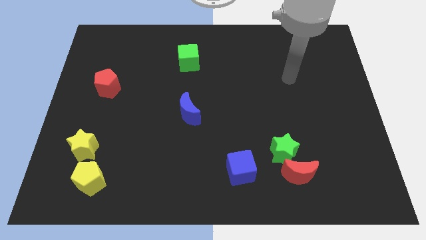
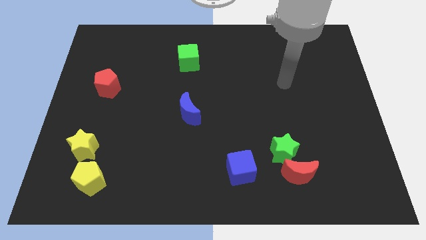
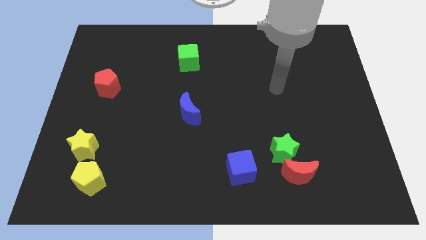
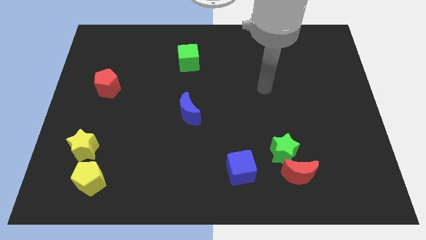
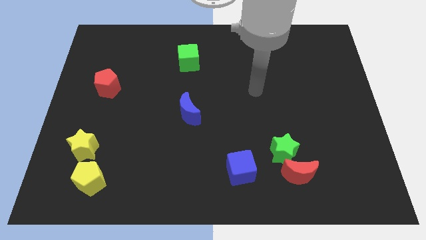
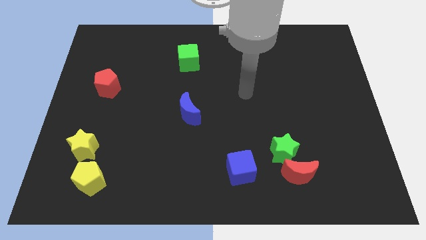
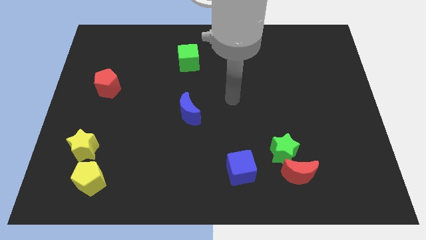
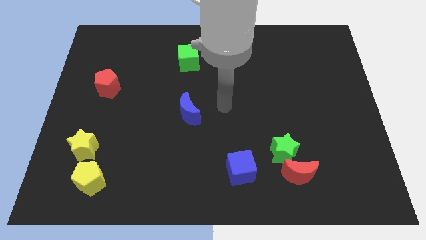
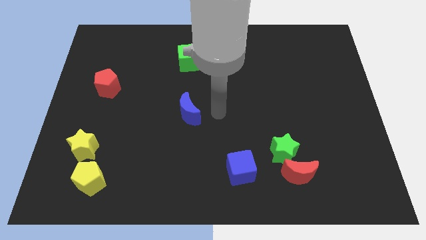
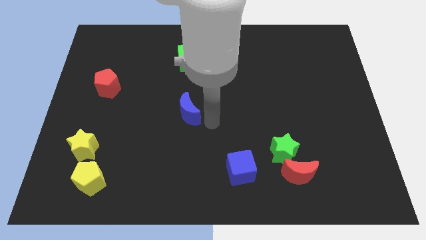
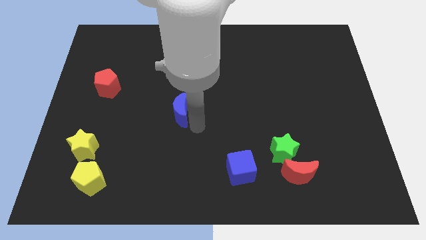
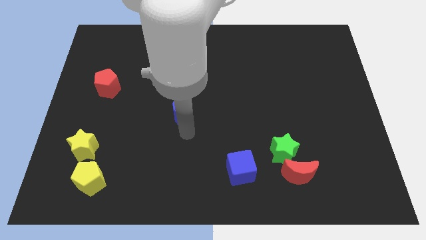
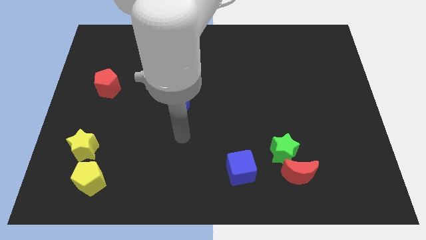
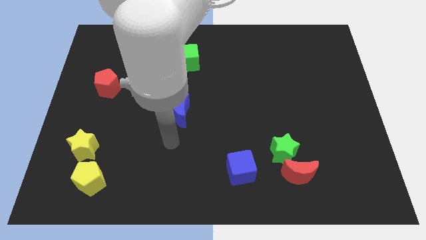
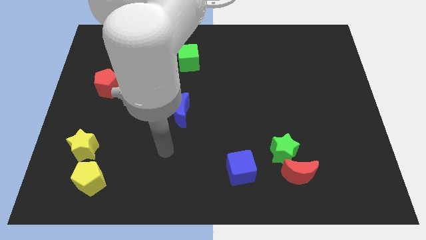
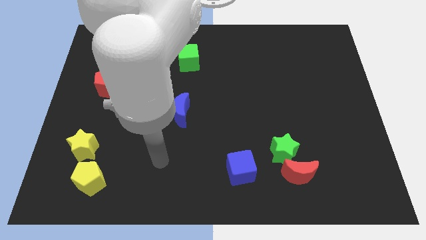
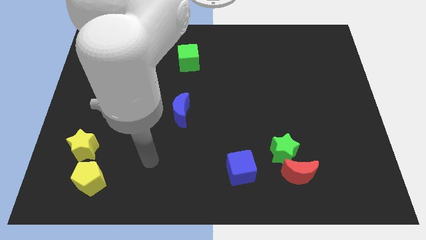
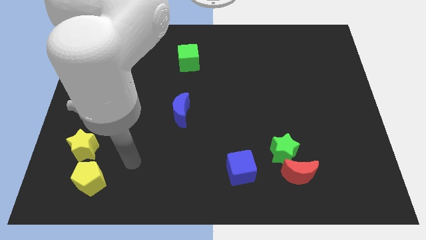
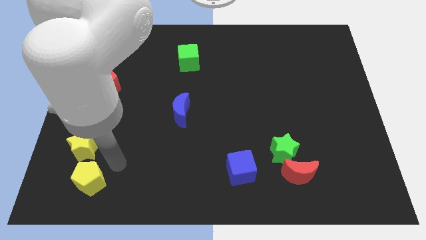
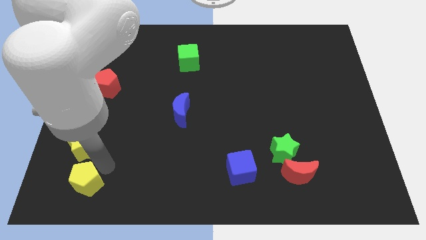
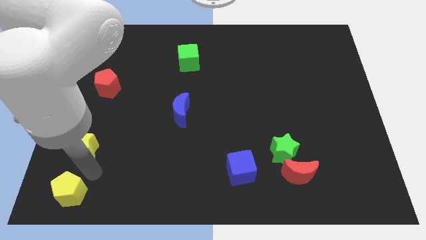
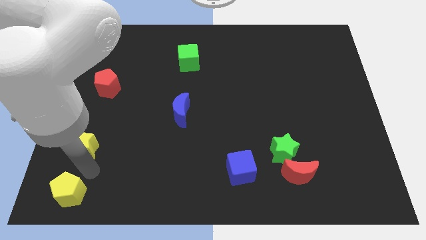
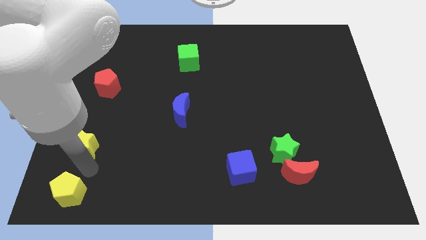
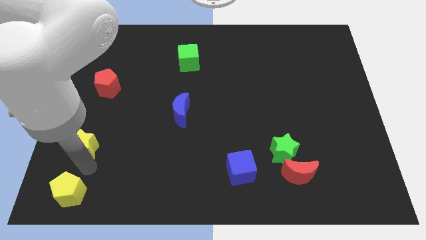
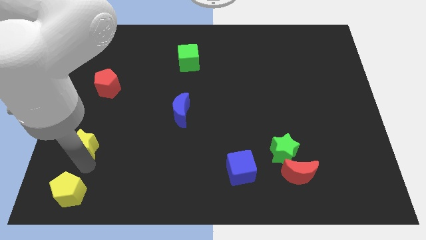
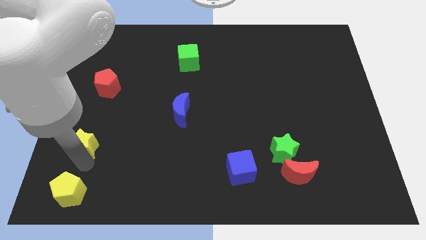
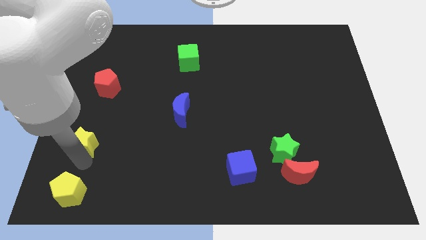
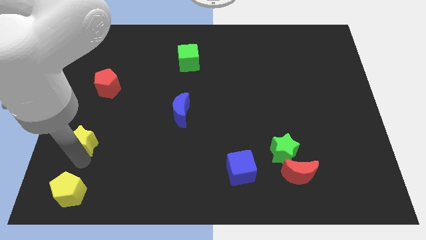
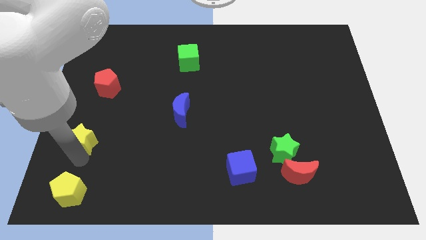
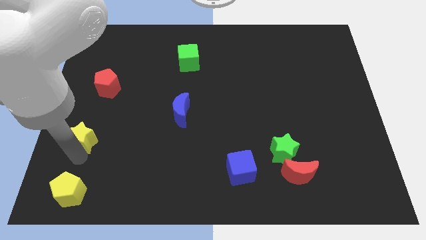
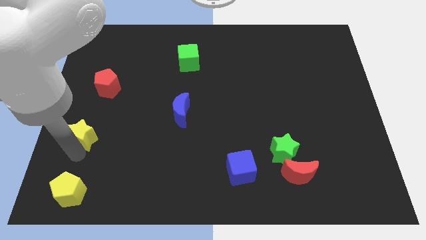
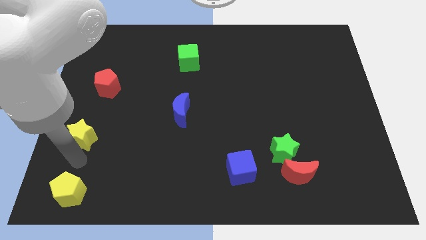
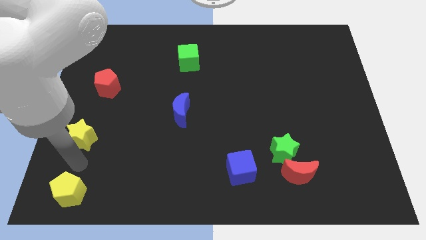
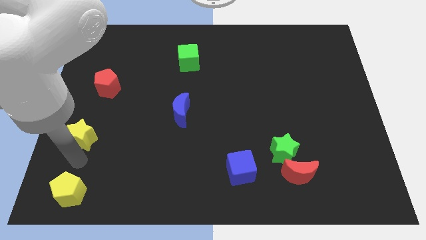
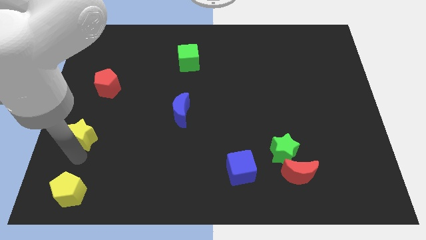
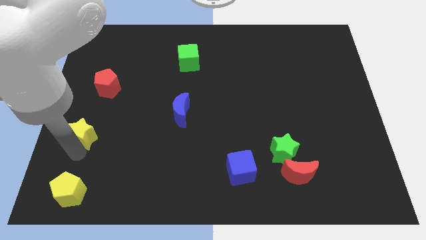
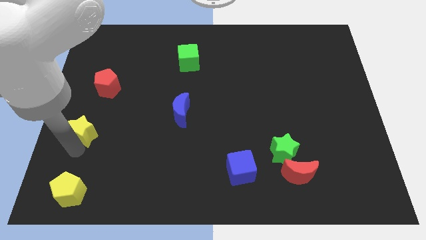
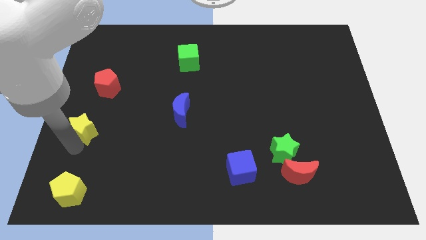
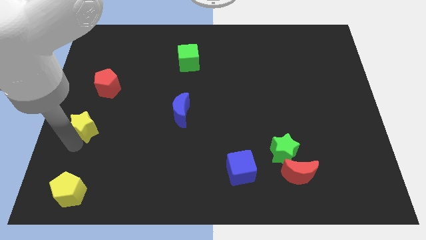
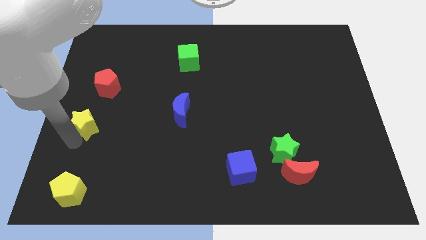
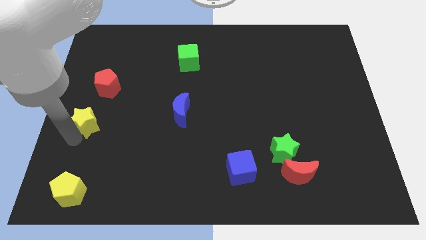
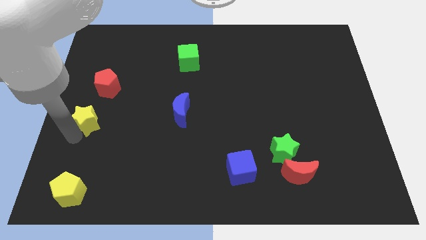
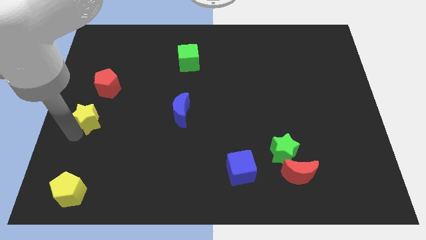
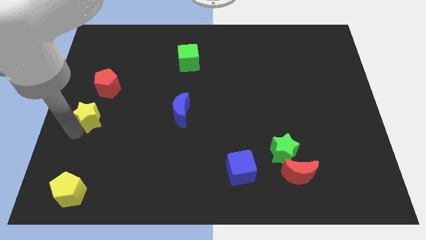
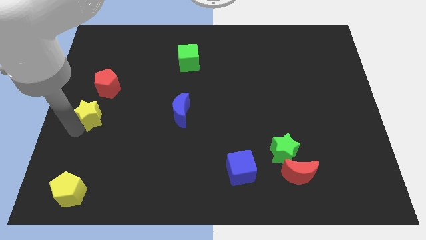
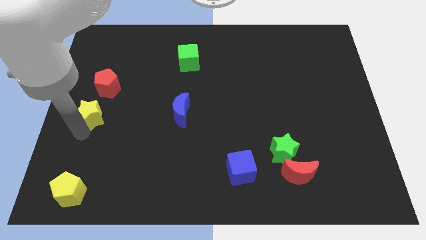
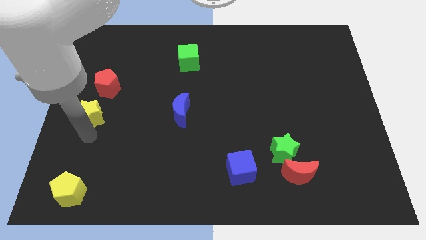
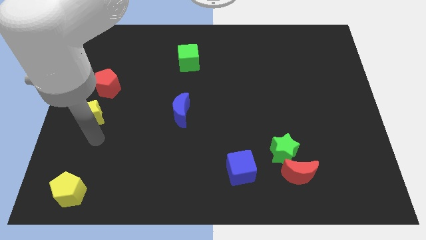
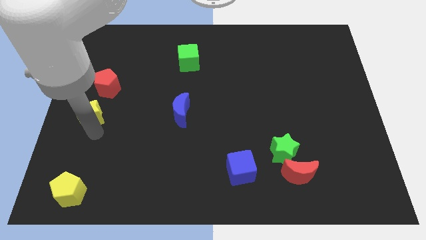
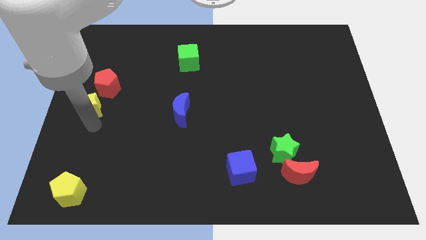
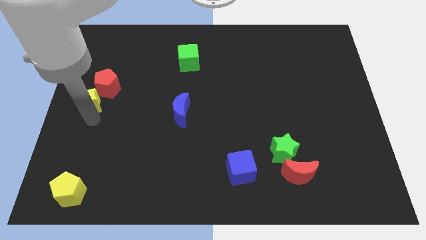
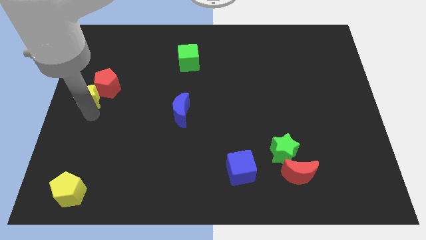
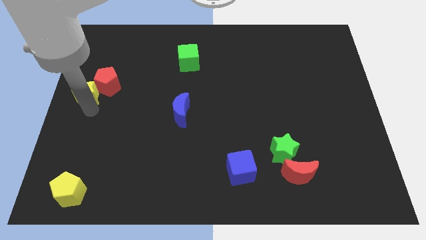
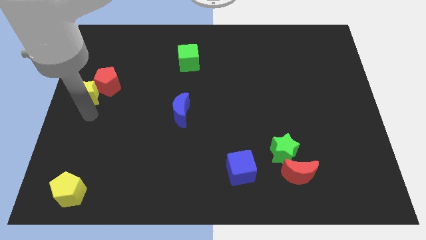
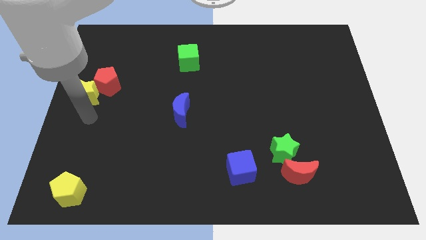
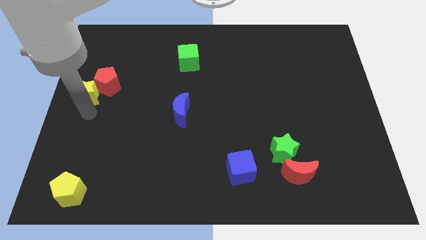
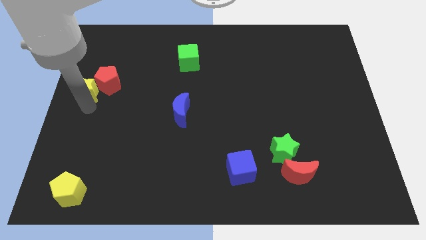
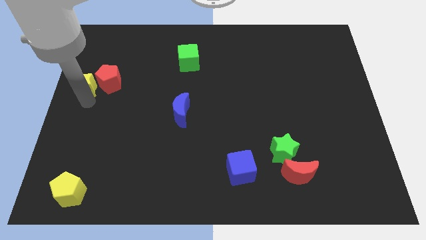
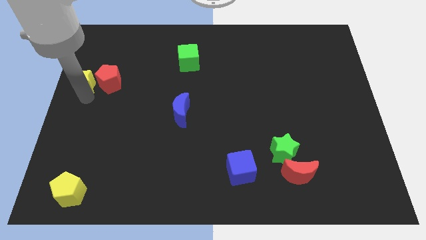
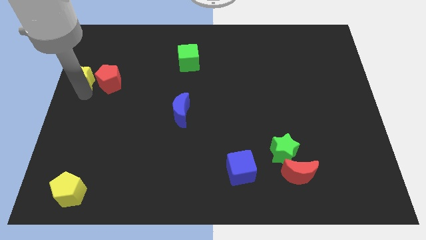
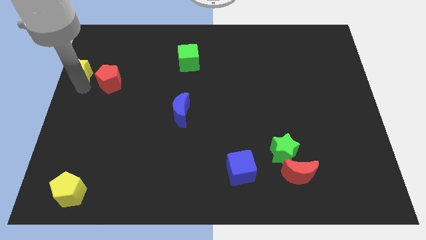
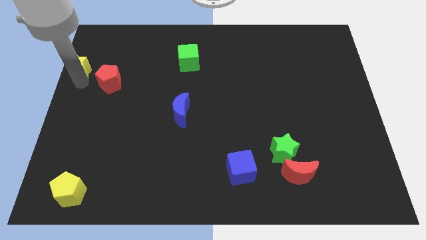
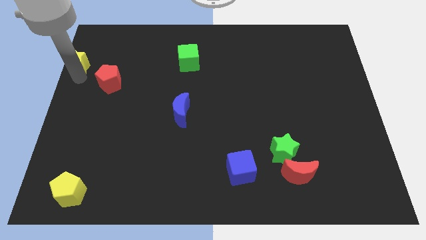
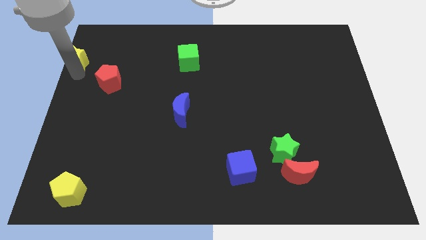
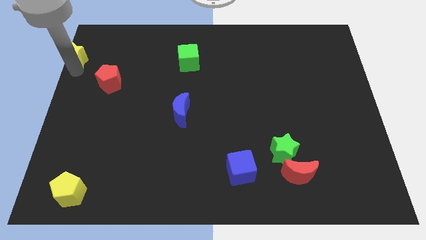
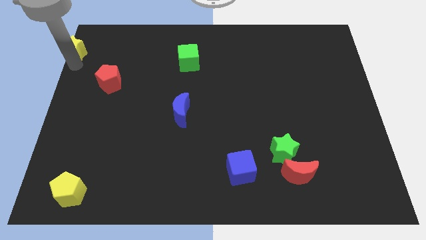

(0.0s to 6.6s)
put the yellow star to the upper left corner
